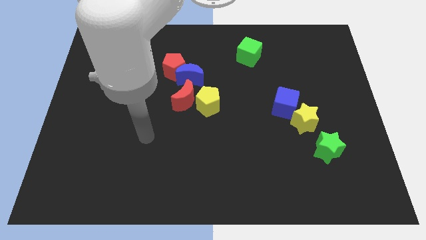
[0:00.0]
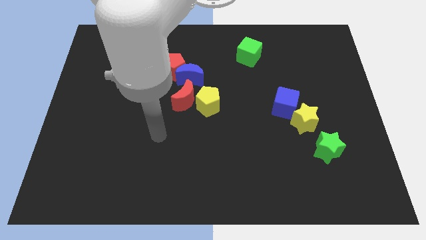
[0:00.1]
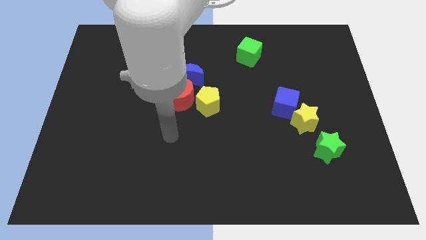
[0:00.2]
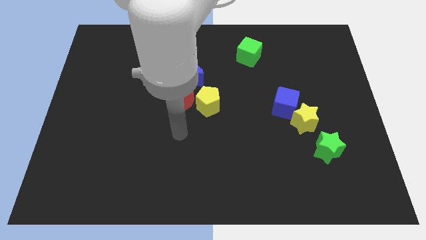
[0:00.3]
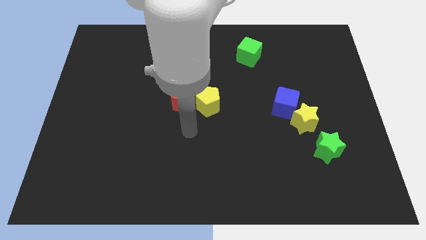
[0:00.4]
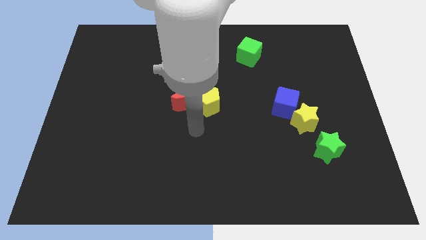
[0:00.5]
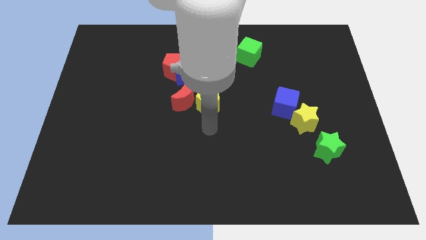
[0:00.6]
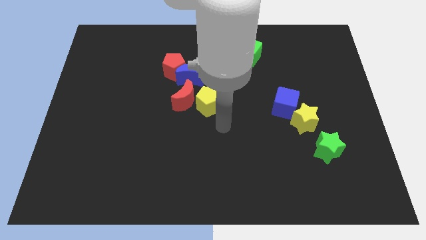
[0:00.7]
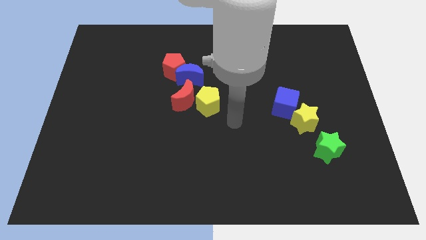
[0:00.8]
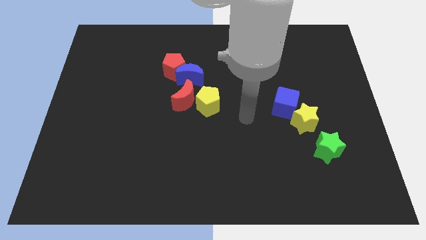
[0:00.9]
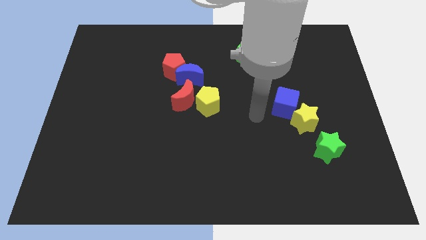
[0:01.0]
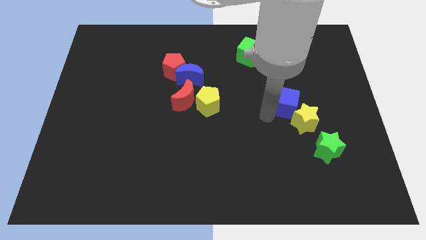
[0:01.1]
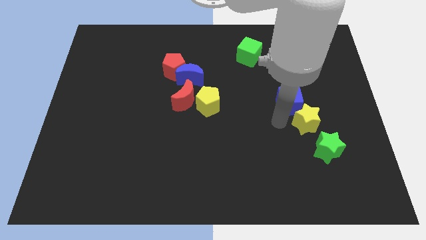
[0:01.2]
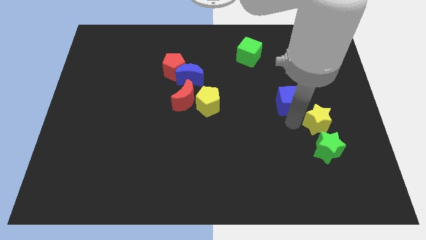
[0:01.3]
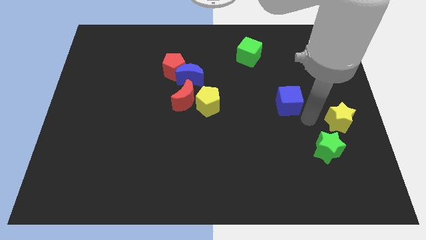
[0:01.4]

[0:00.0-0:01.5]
separate the blue cube from the yellow star

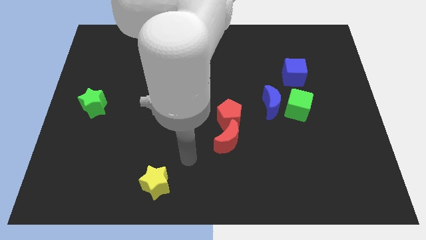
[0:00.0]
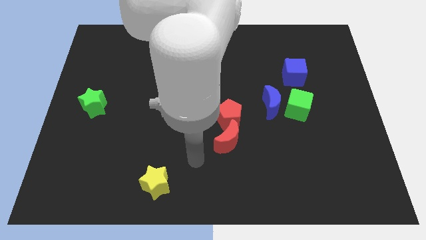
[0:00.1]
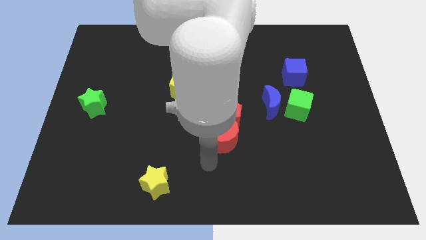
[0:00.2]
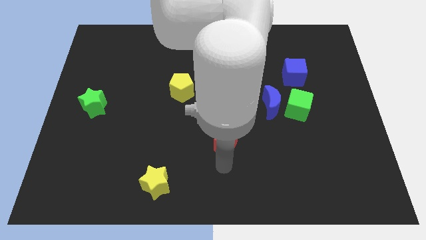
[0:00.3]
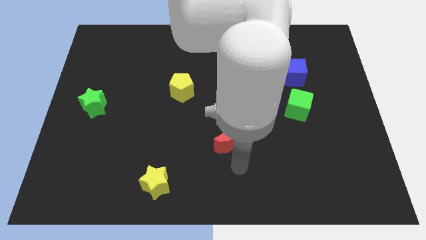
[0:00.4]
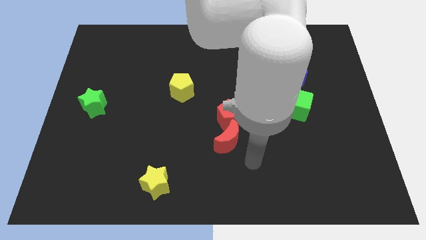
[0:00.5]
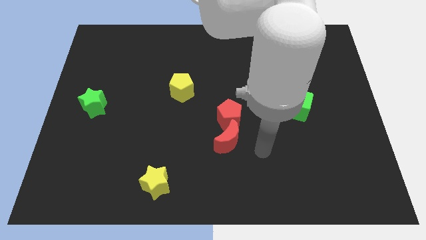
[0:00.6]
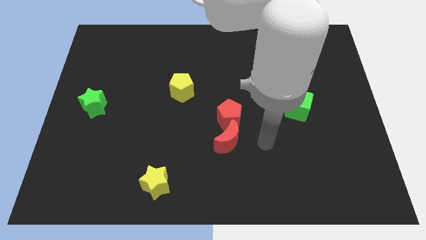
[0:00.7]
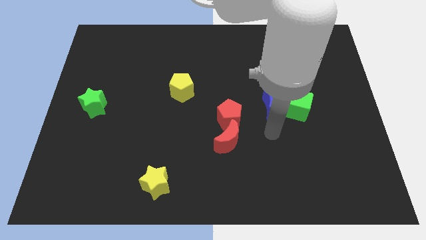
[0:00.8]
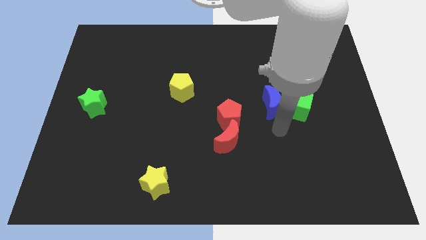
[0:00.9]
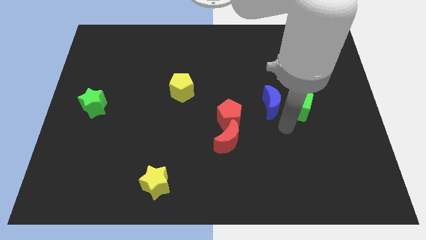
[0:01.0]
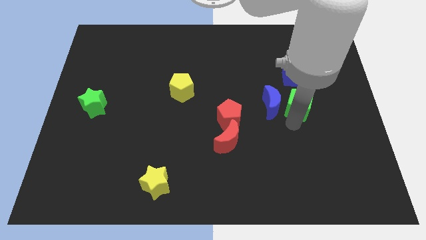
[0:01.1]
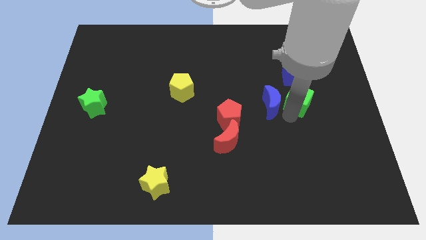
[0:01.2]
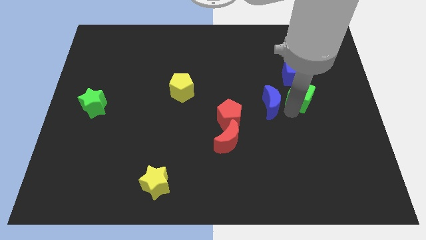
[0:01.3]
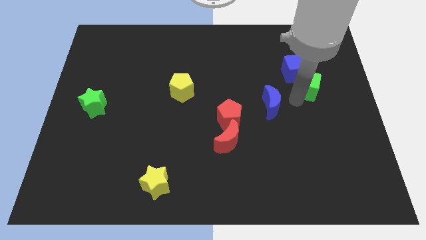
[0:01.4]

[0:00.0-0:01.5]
pull the blue moon apart from the green cube

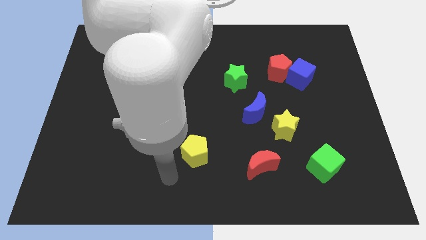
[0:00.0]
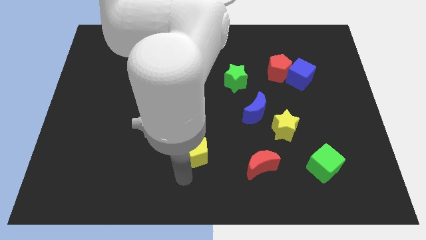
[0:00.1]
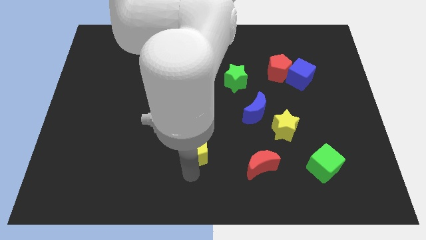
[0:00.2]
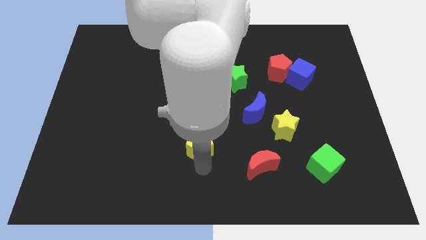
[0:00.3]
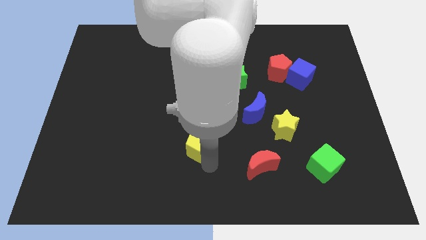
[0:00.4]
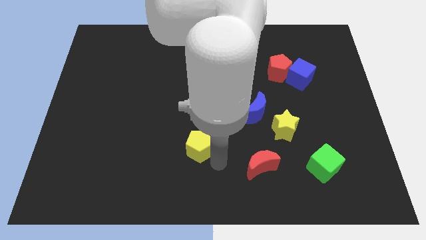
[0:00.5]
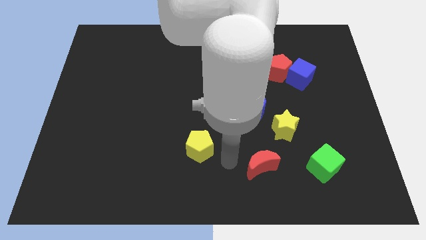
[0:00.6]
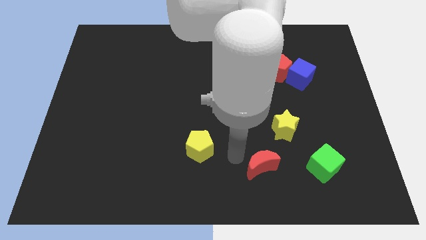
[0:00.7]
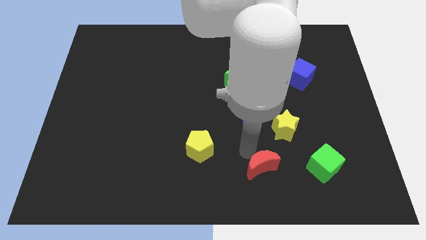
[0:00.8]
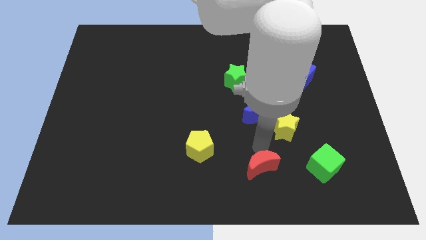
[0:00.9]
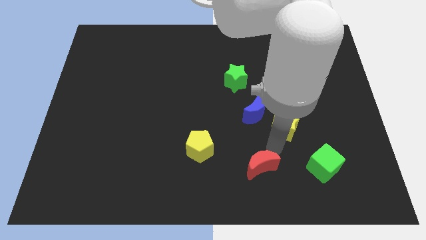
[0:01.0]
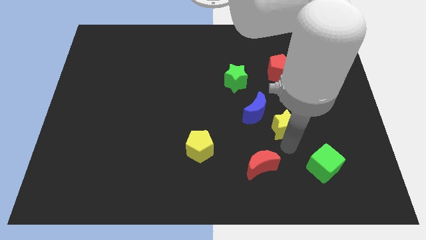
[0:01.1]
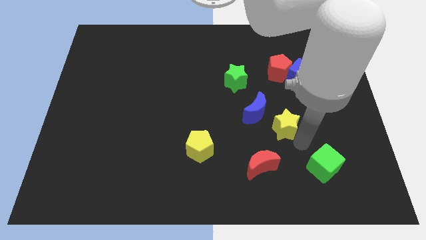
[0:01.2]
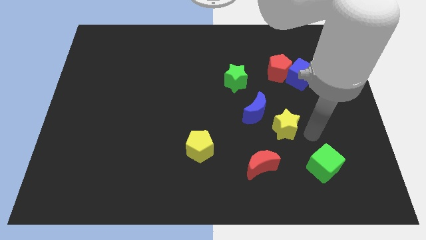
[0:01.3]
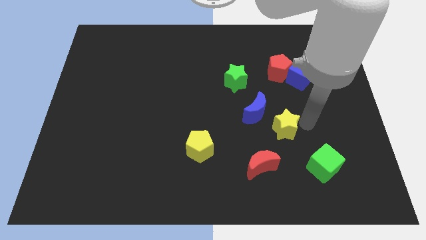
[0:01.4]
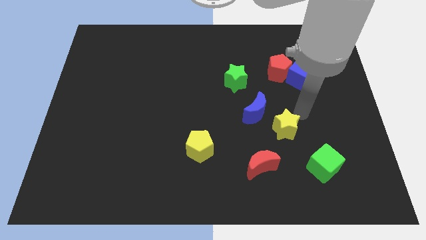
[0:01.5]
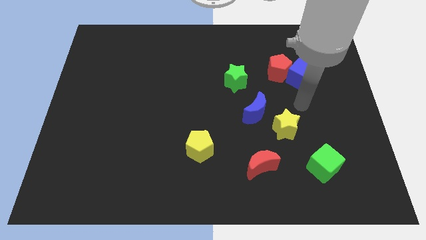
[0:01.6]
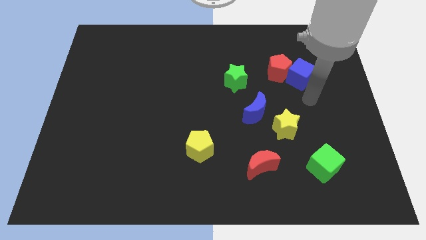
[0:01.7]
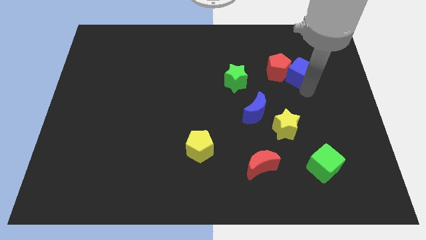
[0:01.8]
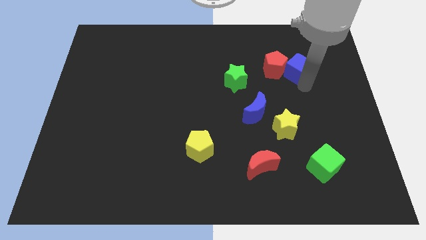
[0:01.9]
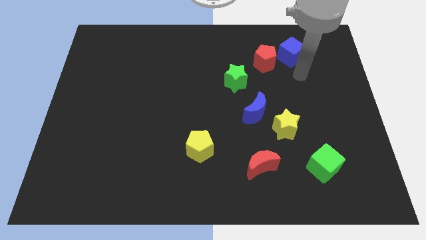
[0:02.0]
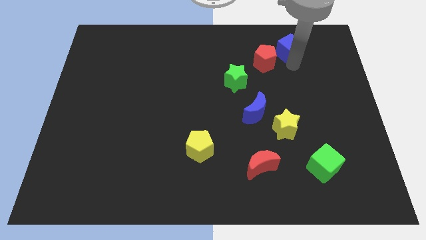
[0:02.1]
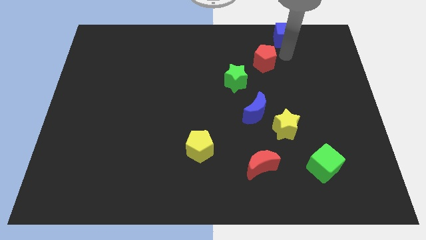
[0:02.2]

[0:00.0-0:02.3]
pull the red pentagon apart from the blue cube

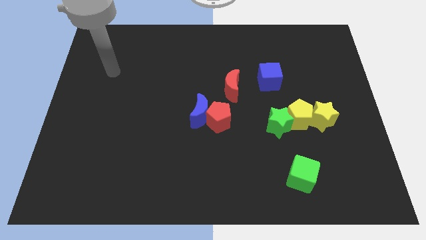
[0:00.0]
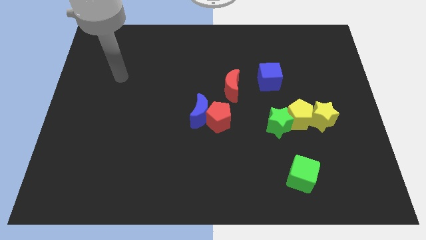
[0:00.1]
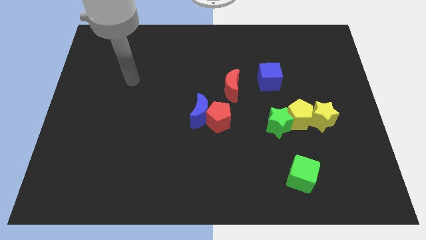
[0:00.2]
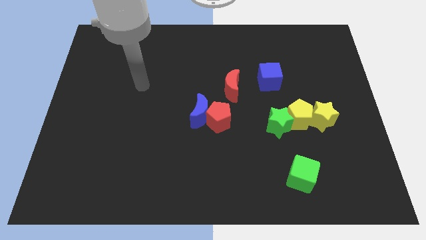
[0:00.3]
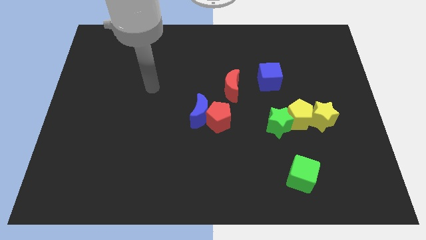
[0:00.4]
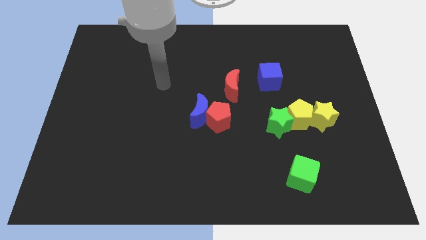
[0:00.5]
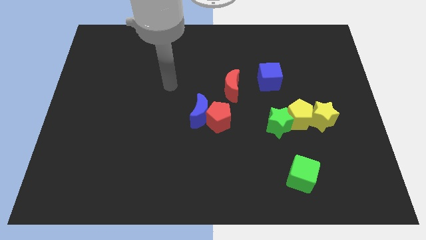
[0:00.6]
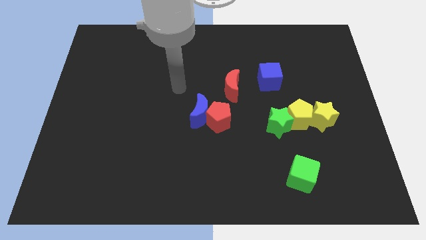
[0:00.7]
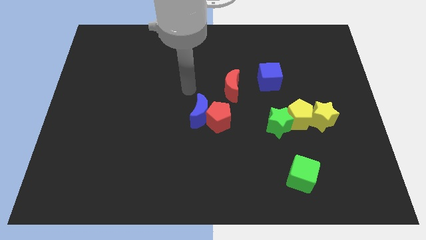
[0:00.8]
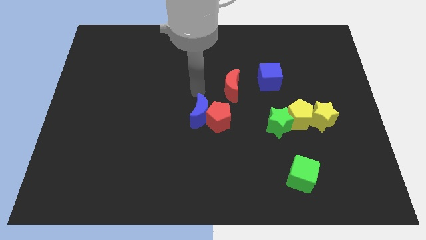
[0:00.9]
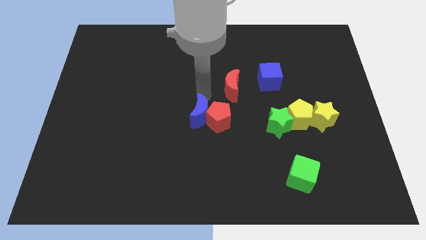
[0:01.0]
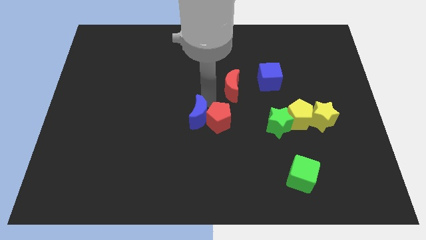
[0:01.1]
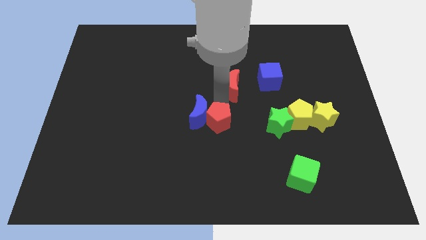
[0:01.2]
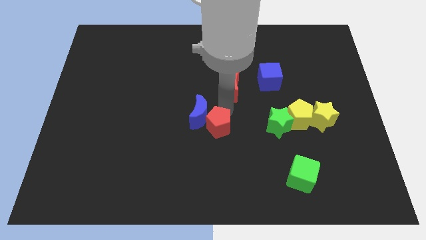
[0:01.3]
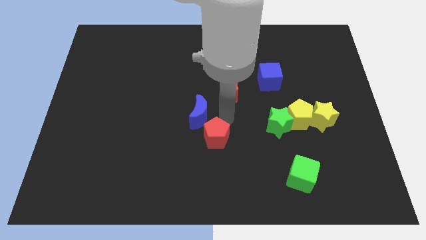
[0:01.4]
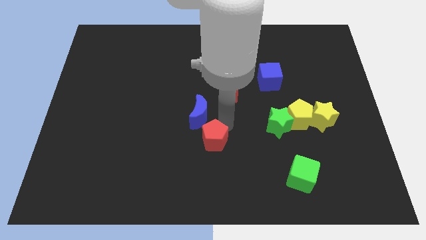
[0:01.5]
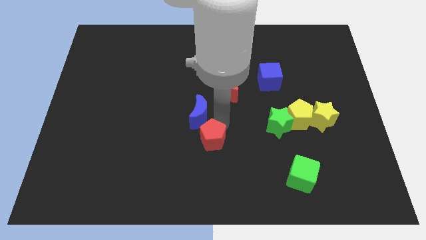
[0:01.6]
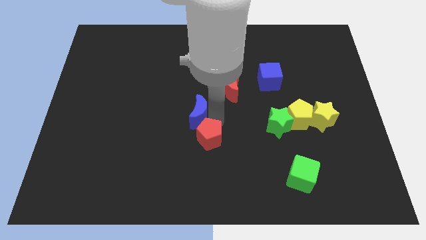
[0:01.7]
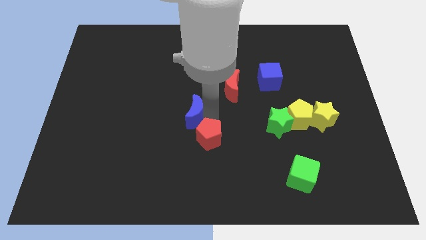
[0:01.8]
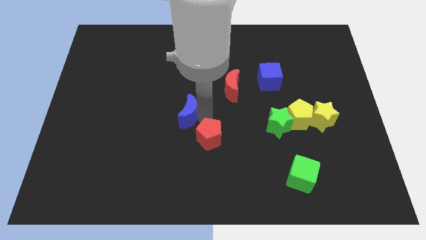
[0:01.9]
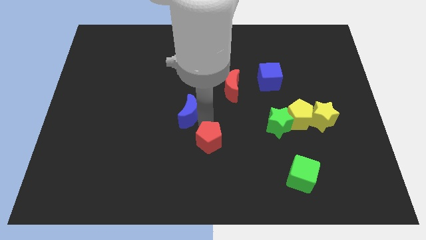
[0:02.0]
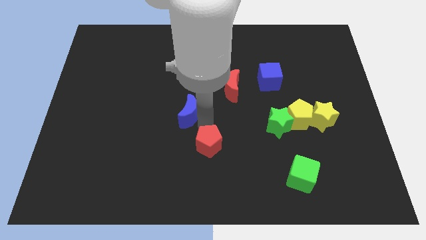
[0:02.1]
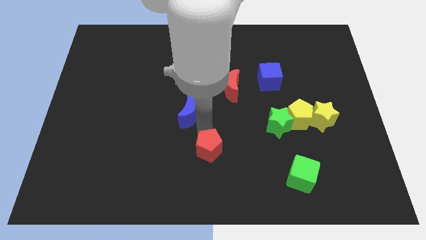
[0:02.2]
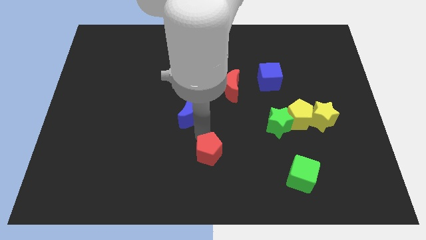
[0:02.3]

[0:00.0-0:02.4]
pull the blue moon apart from the red pentagon

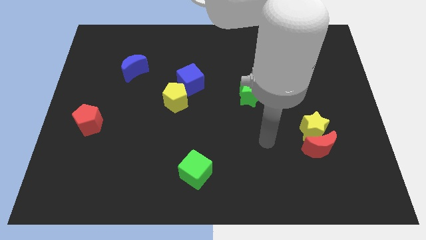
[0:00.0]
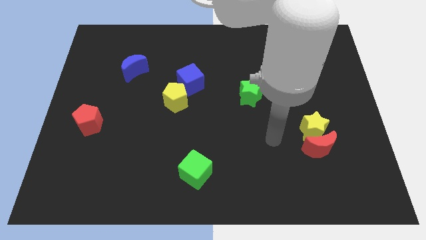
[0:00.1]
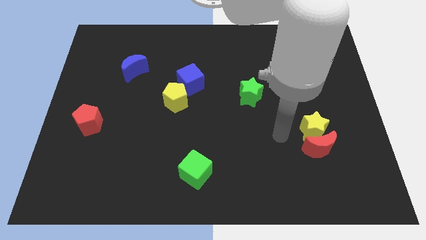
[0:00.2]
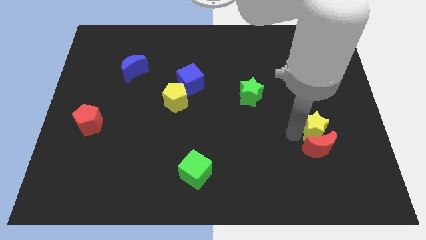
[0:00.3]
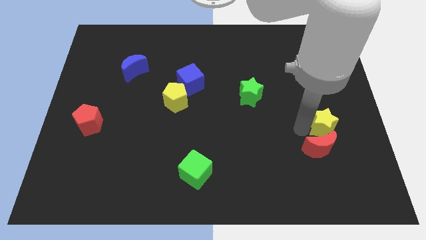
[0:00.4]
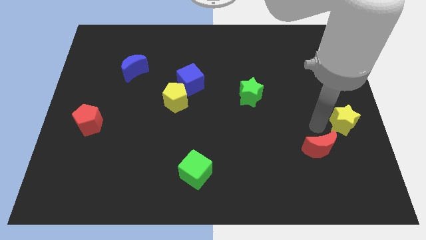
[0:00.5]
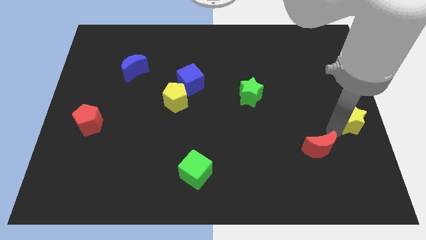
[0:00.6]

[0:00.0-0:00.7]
move the red moon away from the yellow star

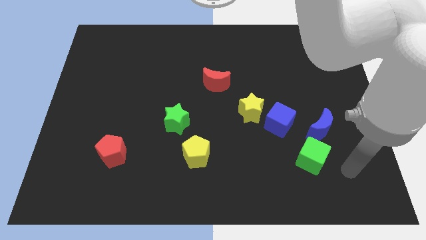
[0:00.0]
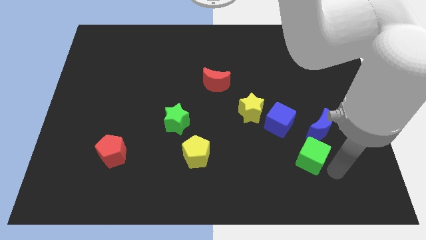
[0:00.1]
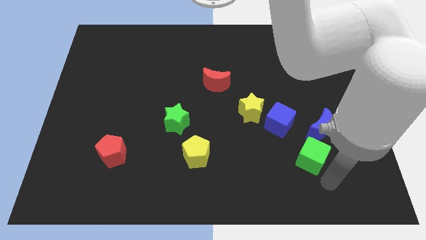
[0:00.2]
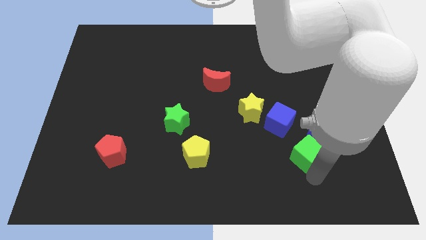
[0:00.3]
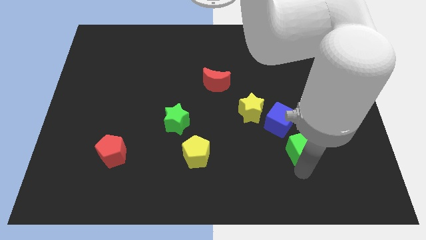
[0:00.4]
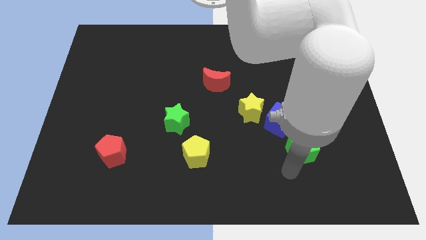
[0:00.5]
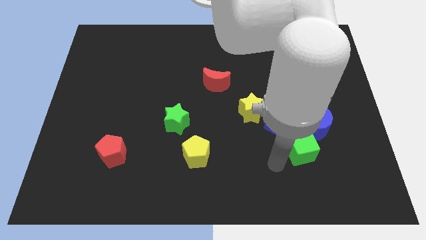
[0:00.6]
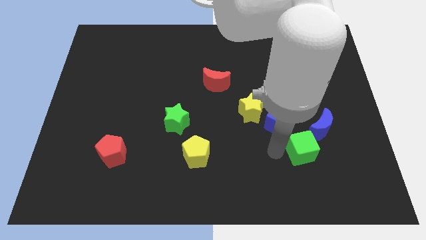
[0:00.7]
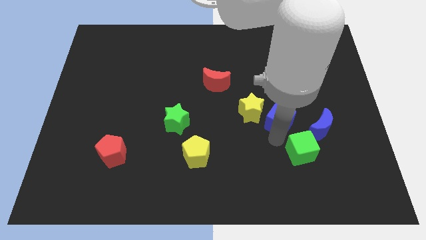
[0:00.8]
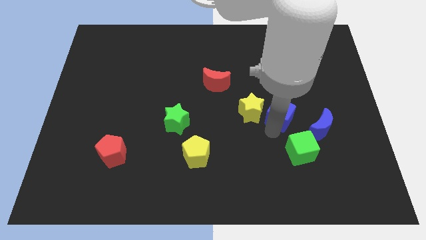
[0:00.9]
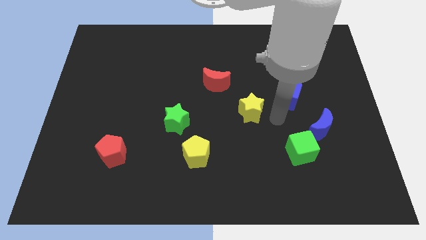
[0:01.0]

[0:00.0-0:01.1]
pull the yellow star apart from the blue cube
